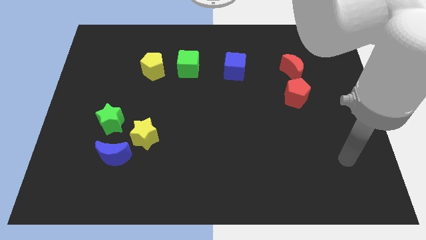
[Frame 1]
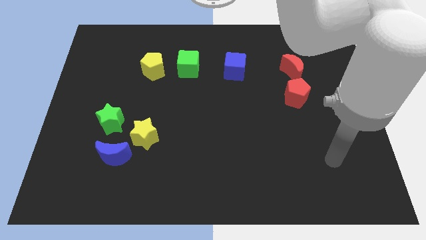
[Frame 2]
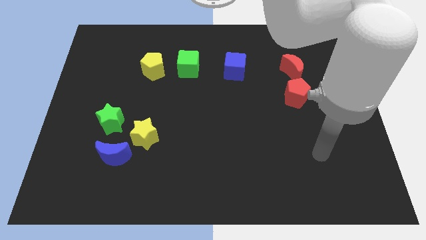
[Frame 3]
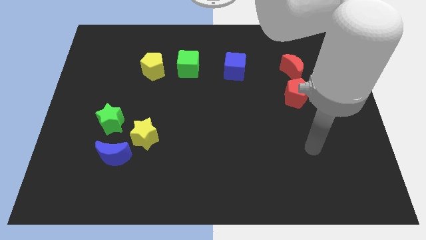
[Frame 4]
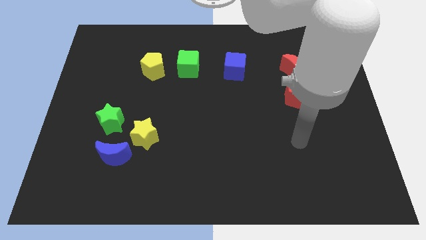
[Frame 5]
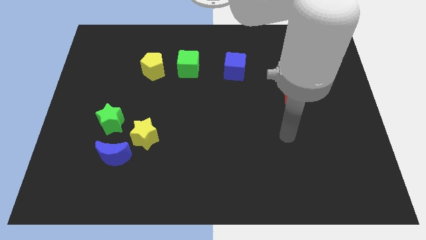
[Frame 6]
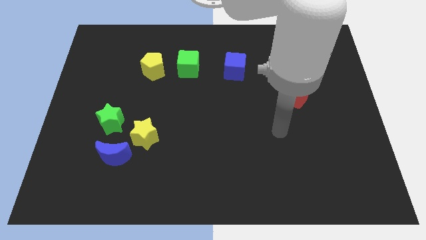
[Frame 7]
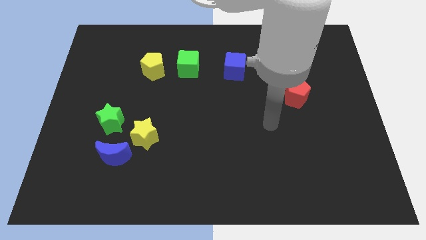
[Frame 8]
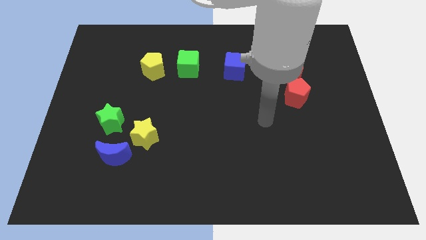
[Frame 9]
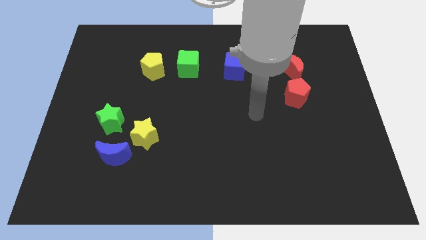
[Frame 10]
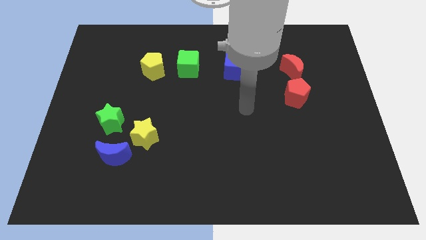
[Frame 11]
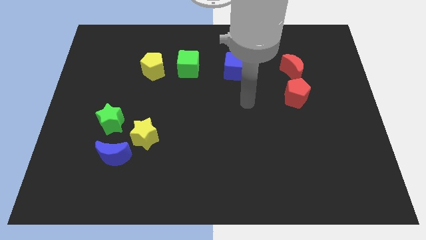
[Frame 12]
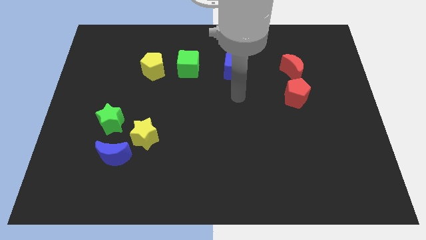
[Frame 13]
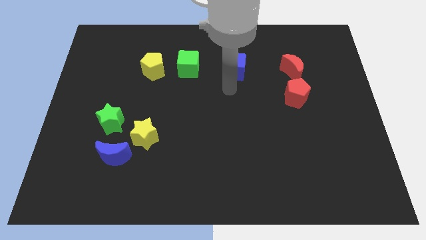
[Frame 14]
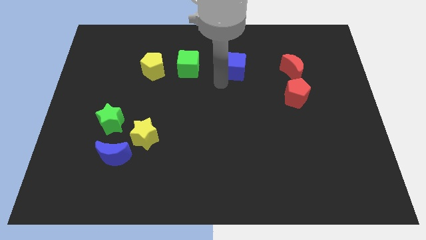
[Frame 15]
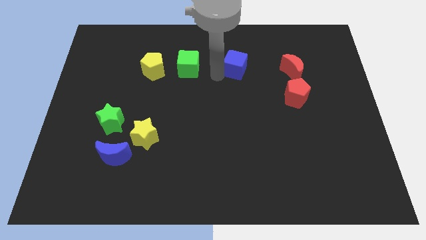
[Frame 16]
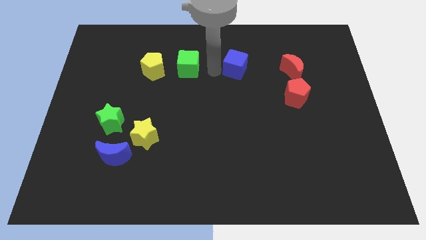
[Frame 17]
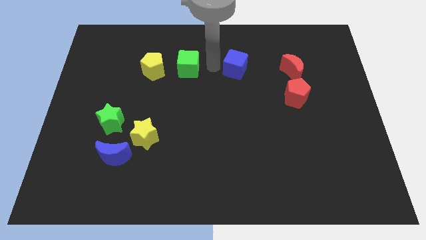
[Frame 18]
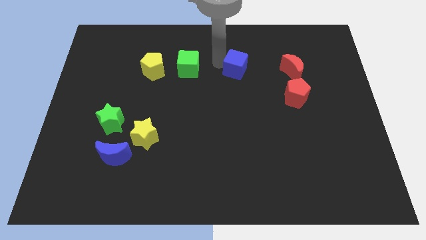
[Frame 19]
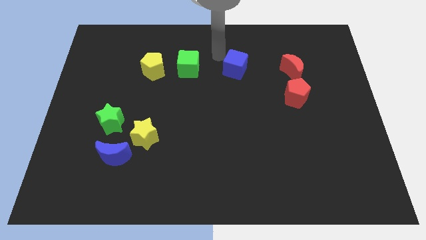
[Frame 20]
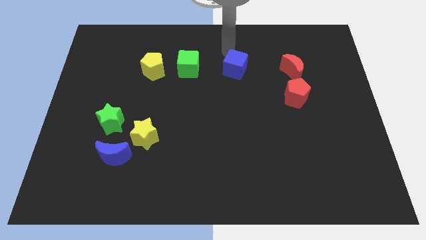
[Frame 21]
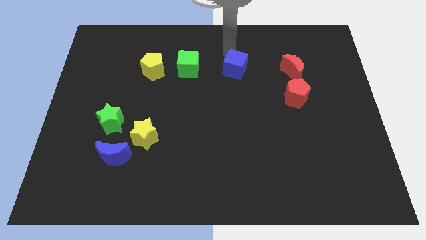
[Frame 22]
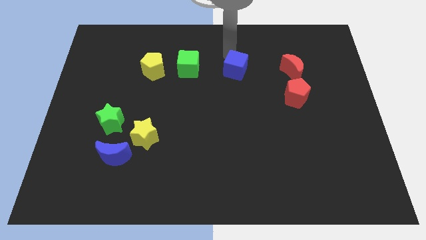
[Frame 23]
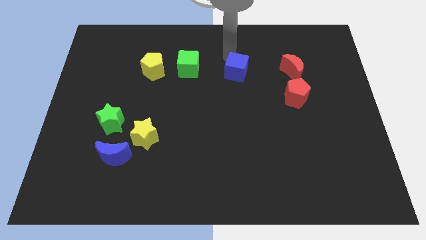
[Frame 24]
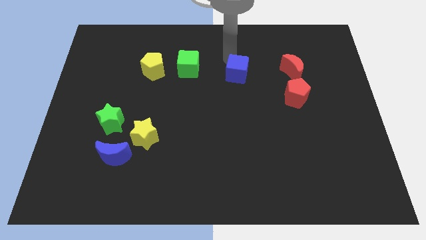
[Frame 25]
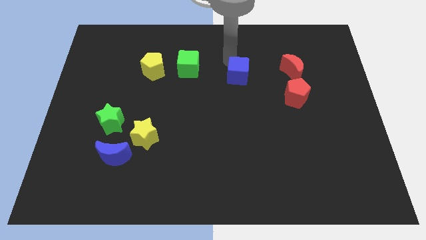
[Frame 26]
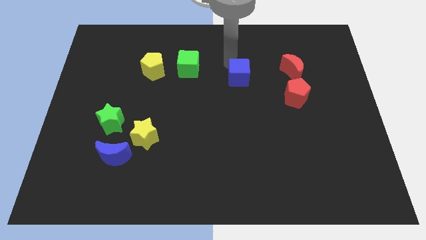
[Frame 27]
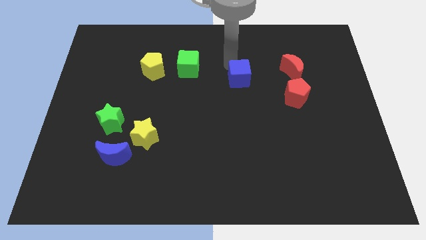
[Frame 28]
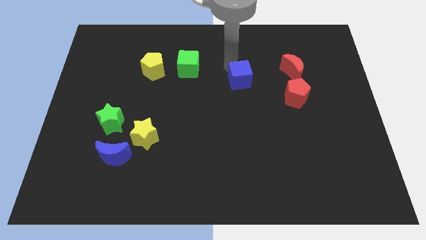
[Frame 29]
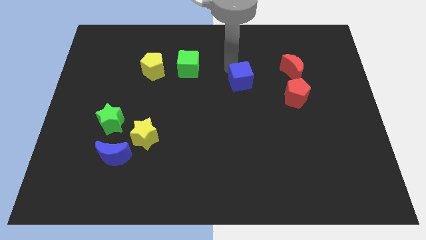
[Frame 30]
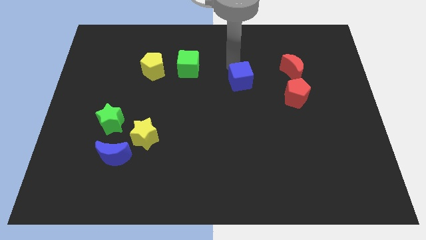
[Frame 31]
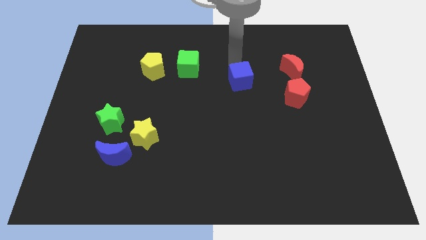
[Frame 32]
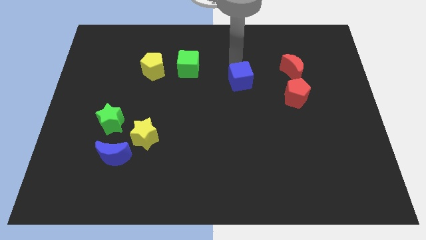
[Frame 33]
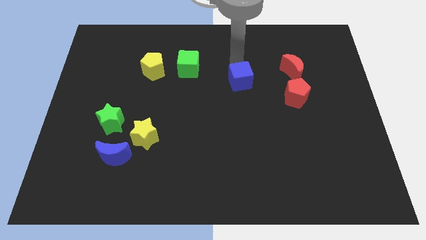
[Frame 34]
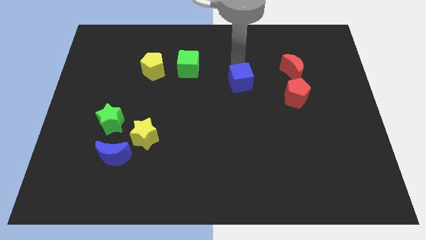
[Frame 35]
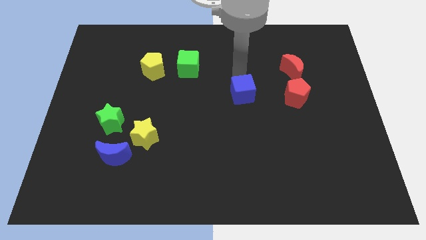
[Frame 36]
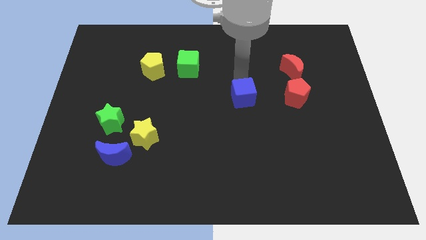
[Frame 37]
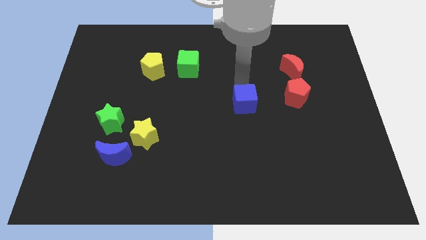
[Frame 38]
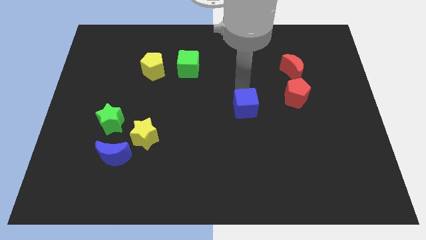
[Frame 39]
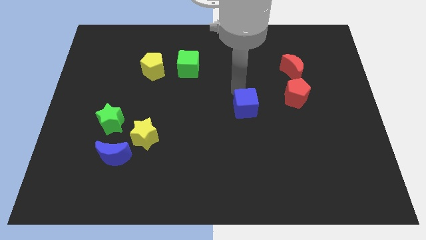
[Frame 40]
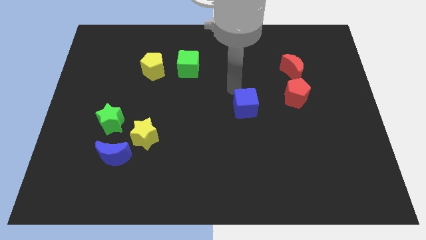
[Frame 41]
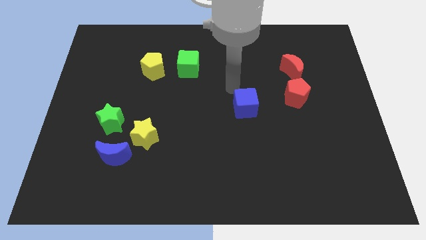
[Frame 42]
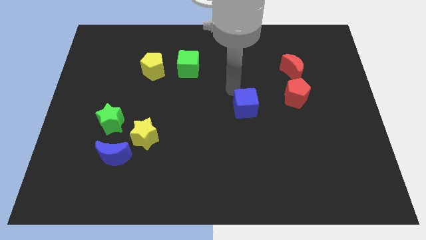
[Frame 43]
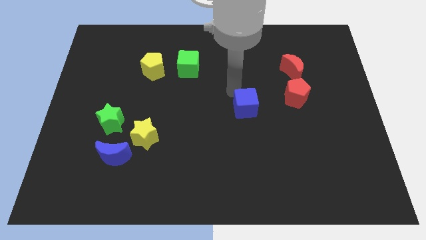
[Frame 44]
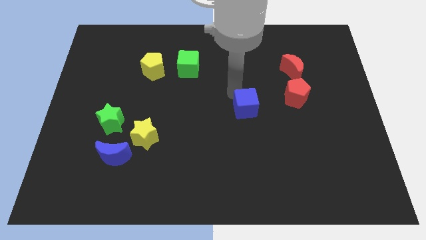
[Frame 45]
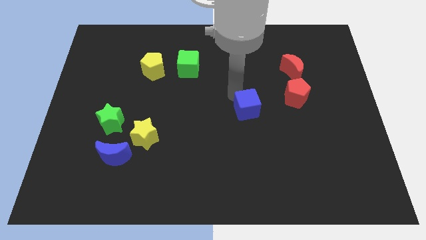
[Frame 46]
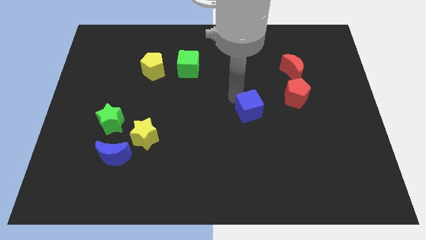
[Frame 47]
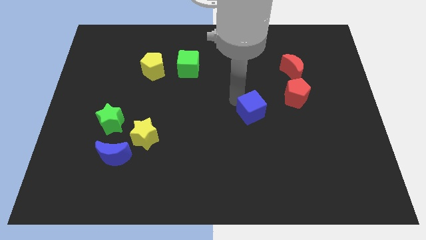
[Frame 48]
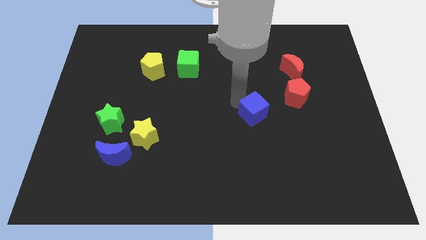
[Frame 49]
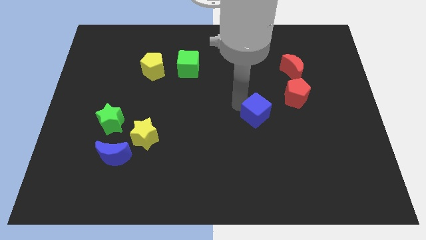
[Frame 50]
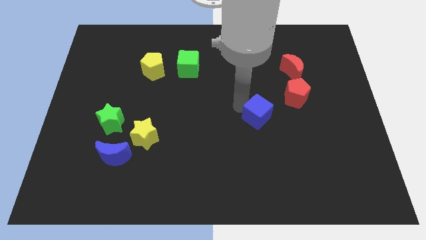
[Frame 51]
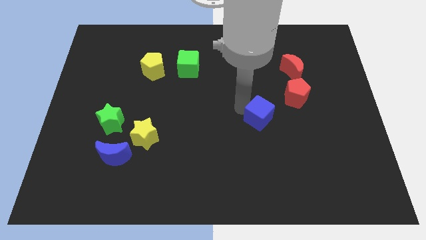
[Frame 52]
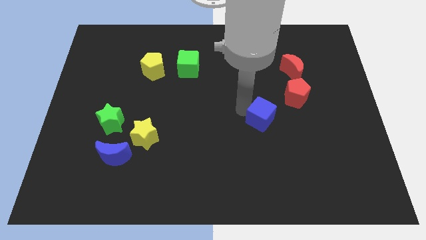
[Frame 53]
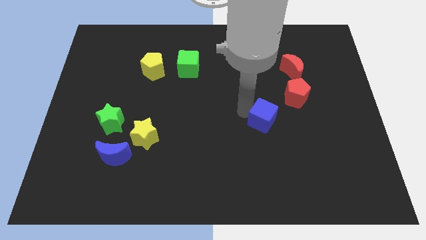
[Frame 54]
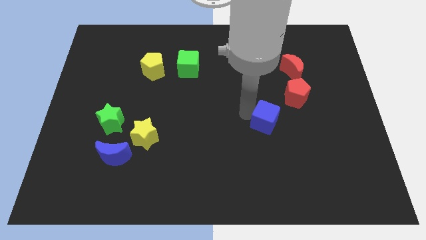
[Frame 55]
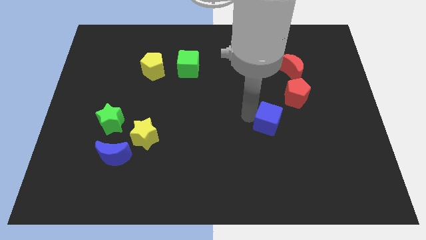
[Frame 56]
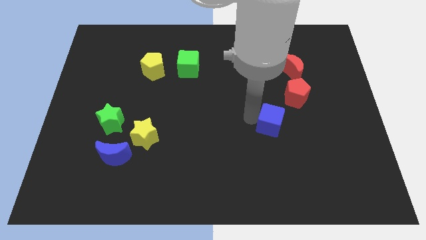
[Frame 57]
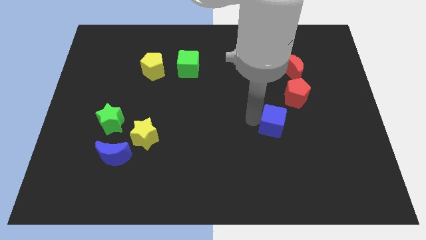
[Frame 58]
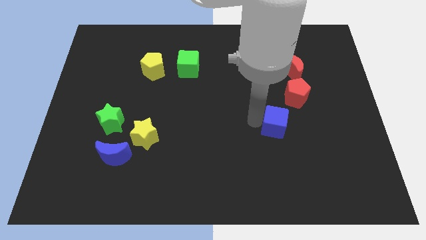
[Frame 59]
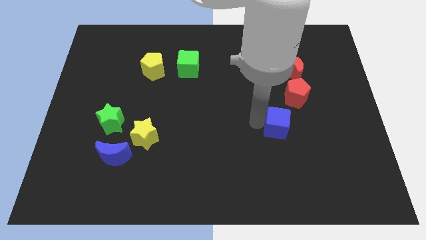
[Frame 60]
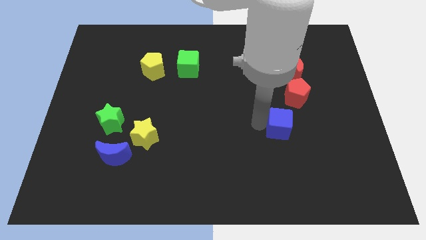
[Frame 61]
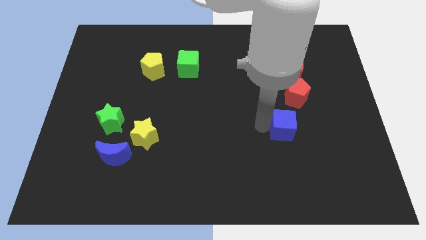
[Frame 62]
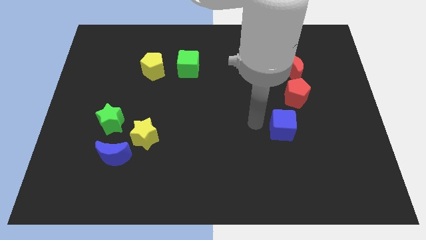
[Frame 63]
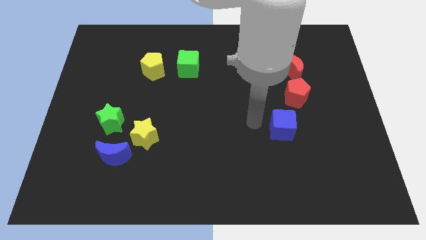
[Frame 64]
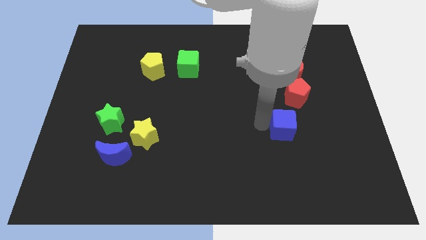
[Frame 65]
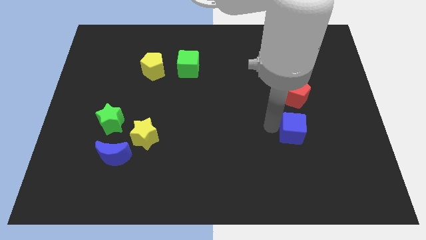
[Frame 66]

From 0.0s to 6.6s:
push the blue cube diagonally downwards and right

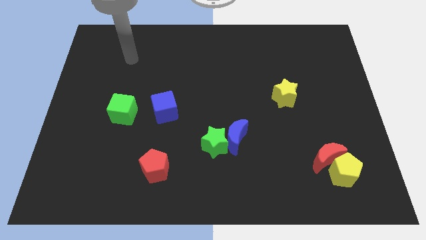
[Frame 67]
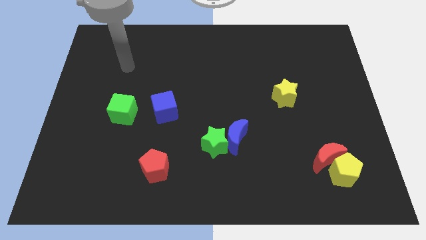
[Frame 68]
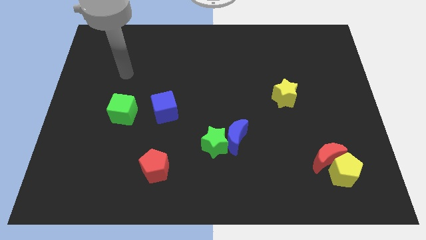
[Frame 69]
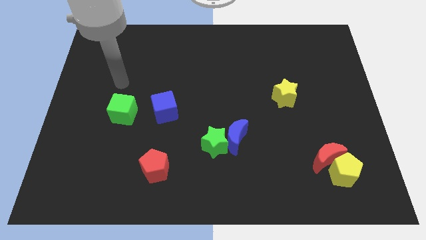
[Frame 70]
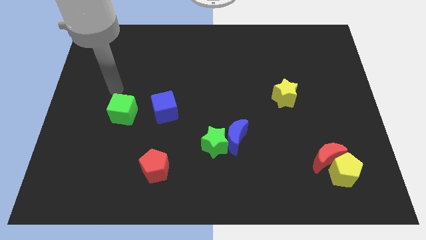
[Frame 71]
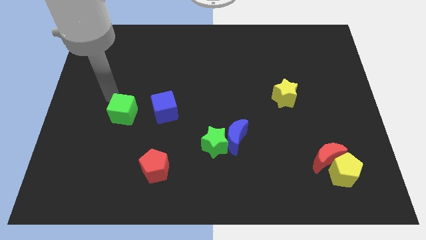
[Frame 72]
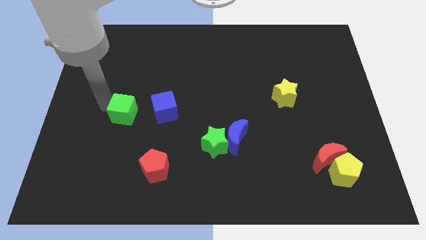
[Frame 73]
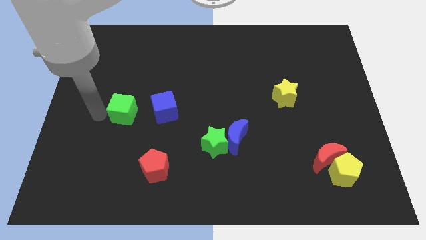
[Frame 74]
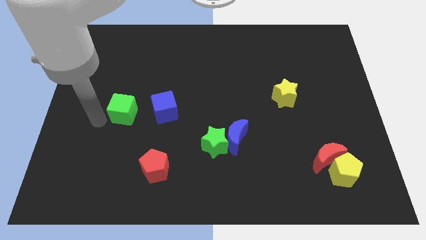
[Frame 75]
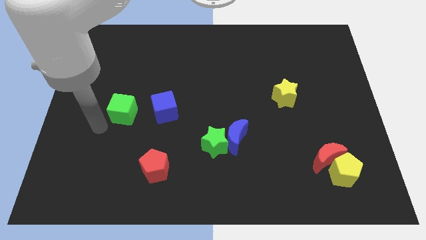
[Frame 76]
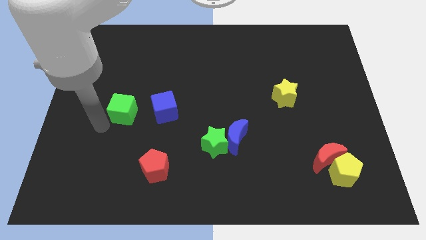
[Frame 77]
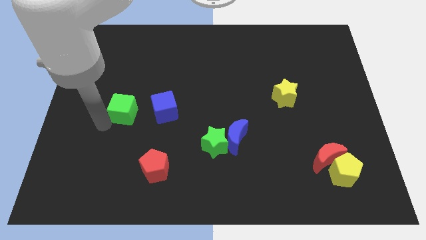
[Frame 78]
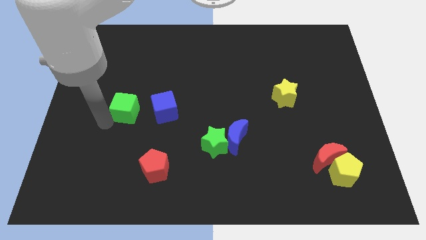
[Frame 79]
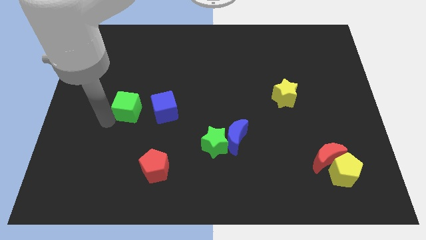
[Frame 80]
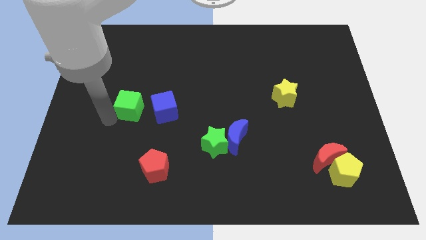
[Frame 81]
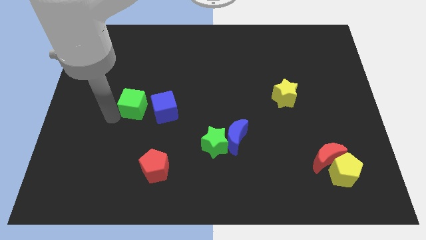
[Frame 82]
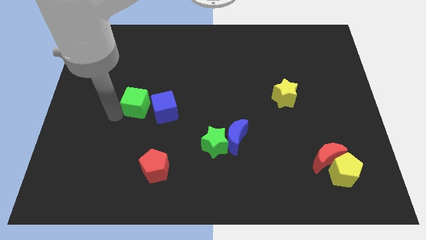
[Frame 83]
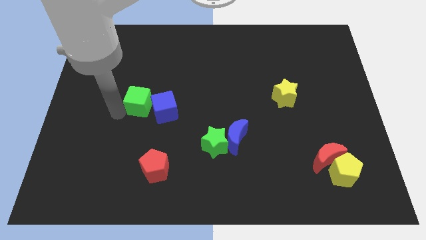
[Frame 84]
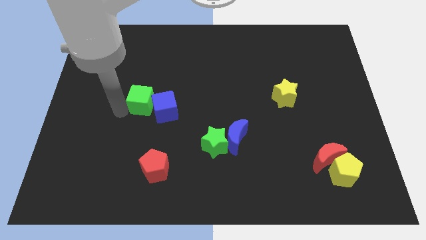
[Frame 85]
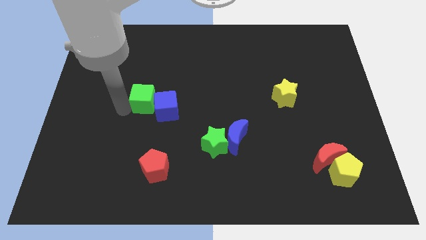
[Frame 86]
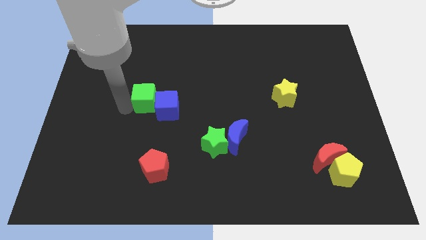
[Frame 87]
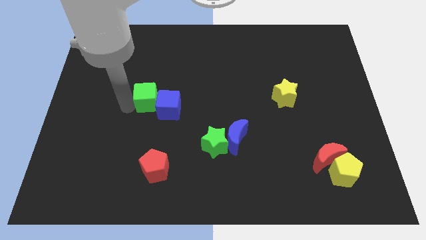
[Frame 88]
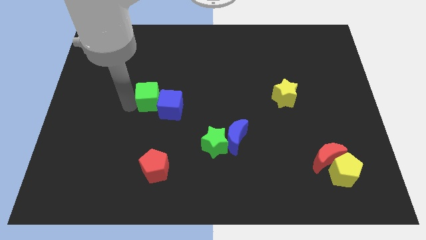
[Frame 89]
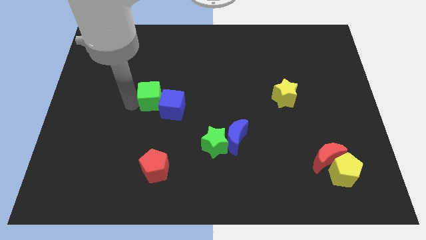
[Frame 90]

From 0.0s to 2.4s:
slide the green cube slightly upwards and right
